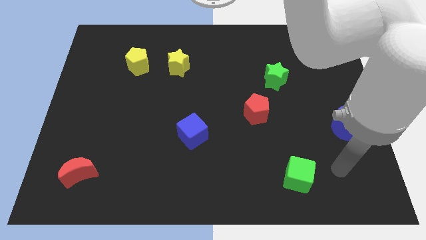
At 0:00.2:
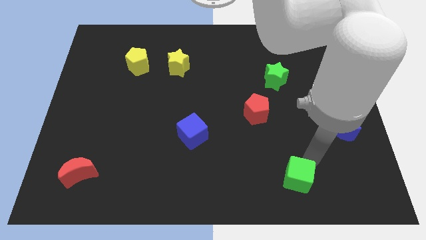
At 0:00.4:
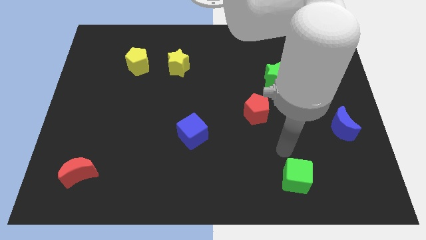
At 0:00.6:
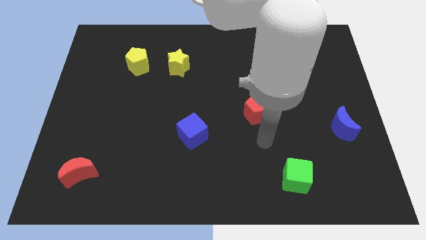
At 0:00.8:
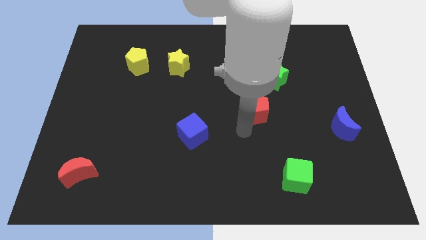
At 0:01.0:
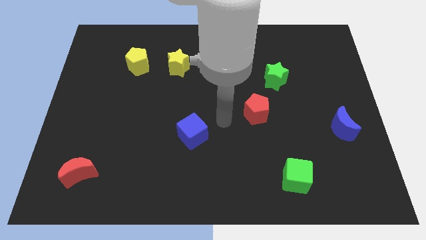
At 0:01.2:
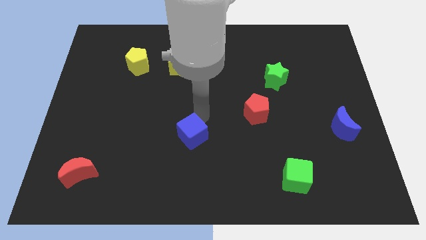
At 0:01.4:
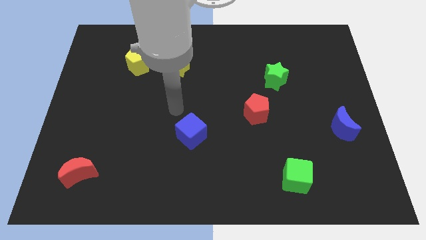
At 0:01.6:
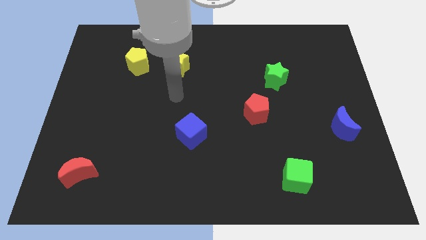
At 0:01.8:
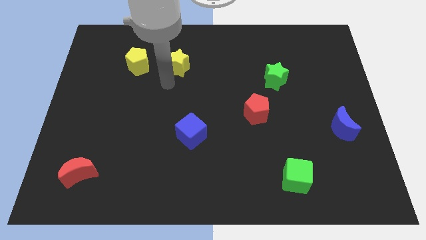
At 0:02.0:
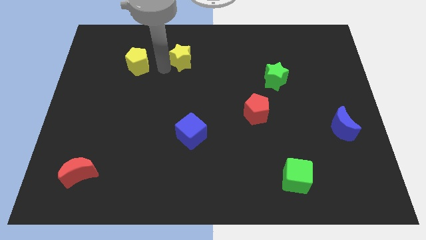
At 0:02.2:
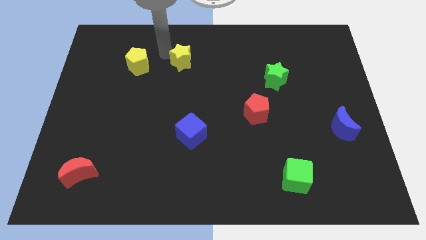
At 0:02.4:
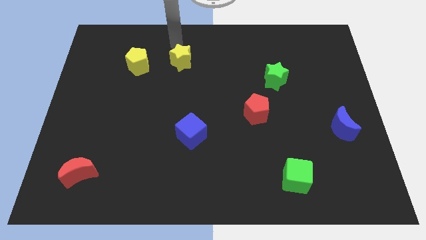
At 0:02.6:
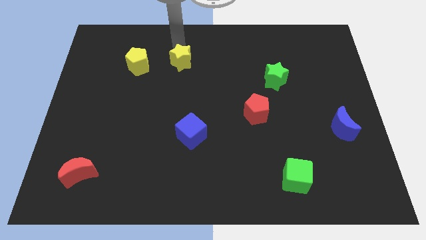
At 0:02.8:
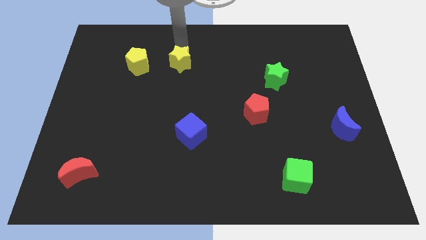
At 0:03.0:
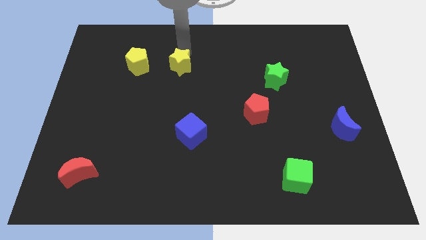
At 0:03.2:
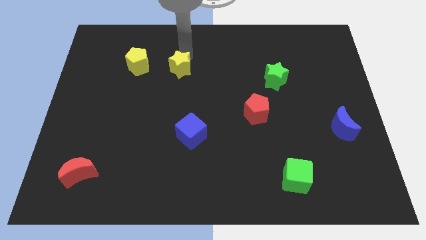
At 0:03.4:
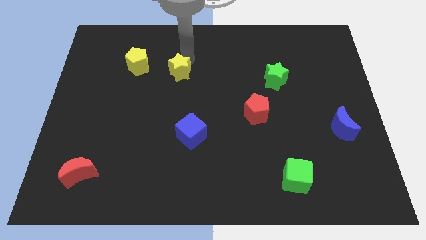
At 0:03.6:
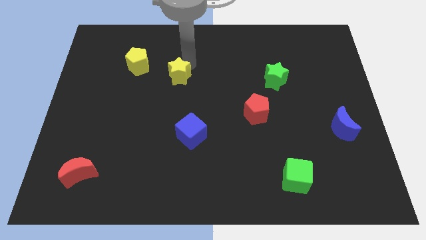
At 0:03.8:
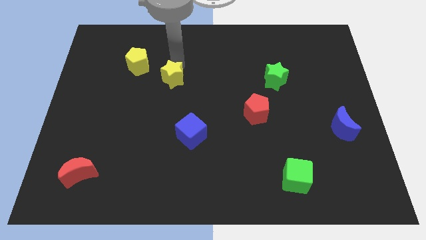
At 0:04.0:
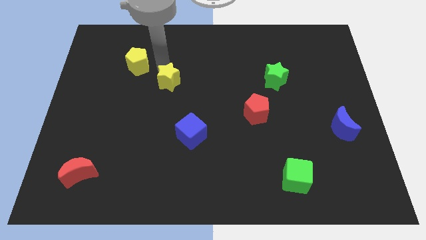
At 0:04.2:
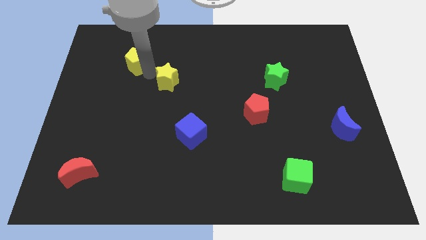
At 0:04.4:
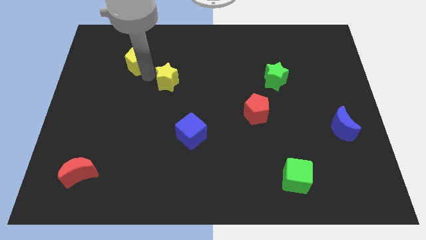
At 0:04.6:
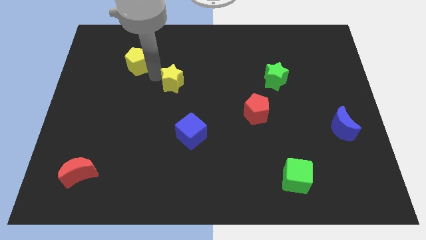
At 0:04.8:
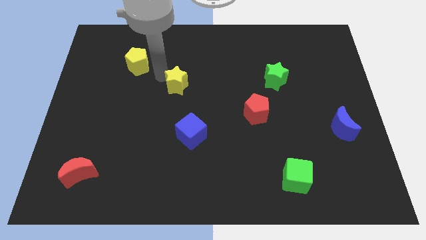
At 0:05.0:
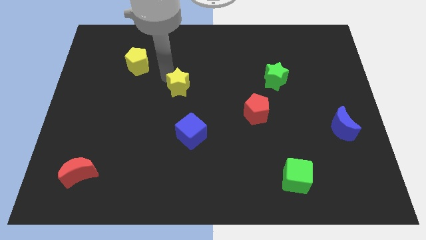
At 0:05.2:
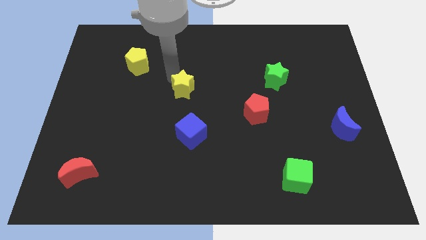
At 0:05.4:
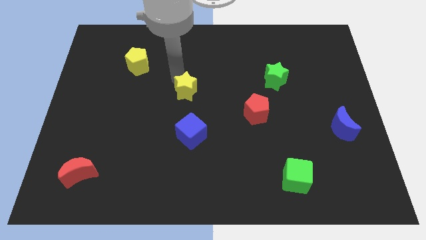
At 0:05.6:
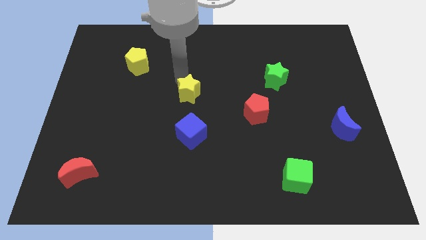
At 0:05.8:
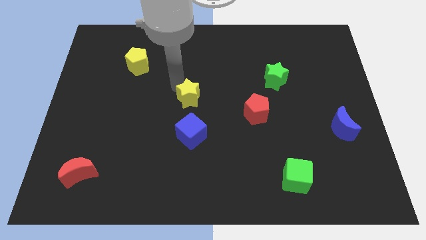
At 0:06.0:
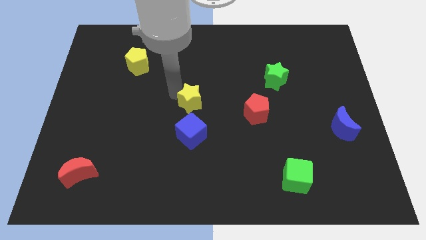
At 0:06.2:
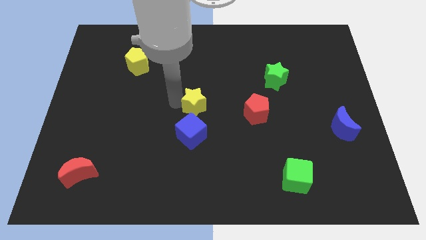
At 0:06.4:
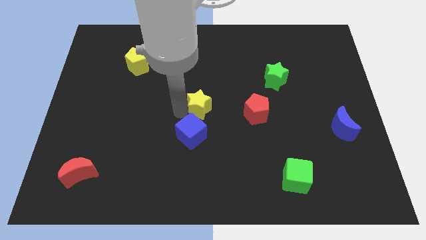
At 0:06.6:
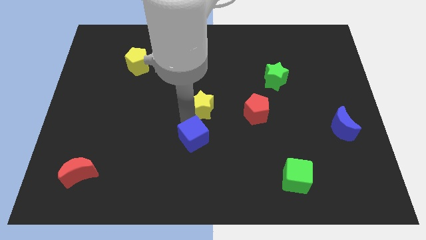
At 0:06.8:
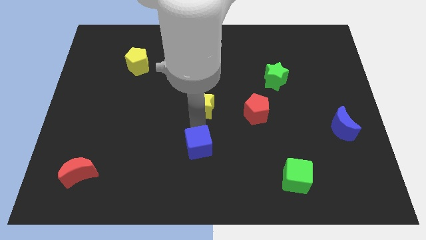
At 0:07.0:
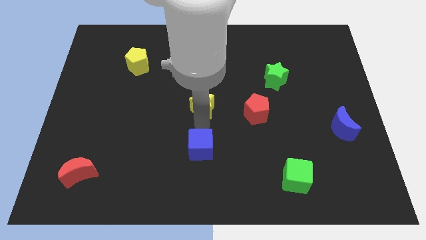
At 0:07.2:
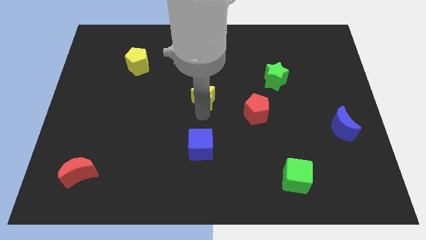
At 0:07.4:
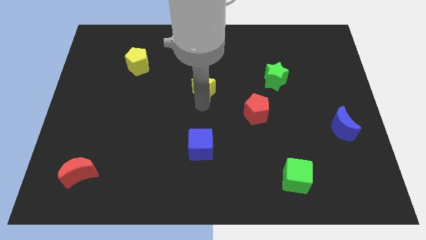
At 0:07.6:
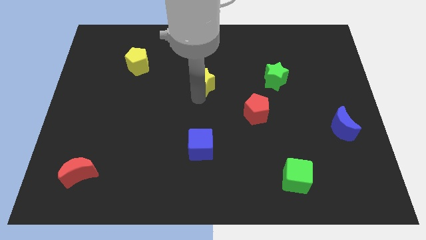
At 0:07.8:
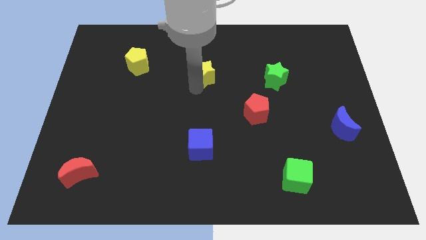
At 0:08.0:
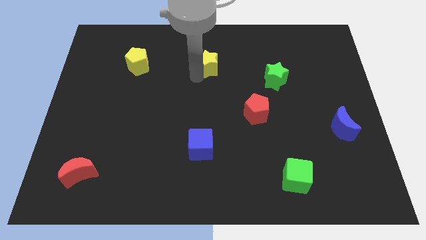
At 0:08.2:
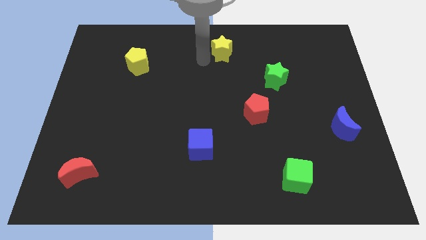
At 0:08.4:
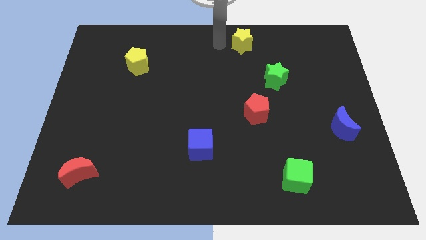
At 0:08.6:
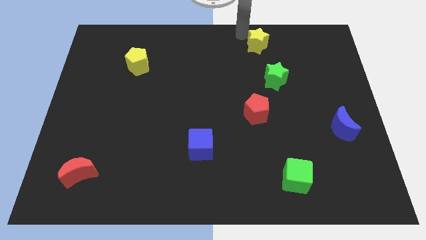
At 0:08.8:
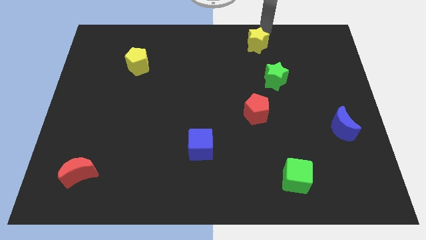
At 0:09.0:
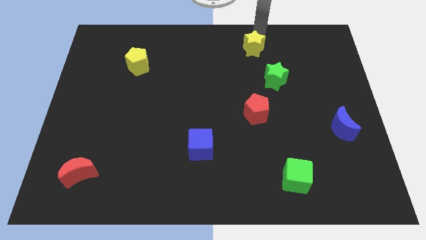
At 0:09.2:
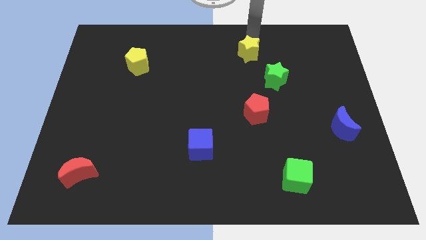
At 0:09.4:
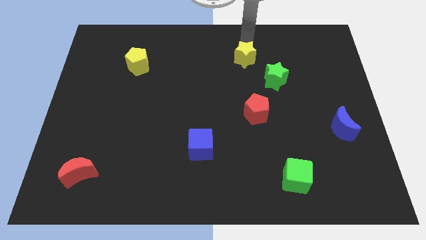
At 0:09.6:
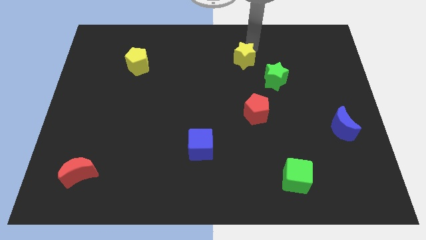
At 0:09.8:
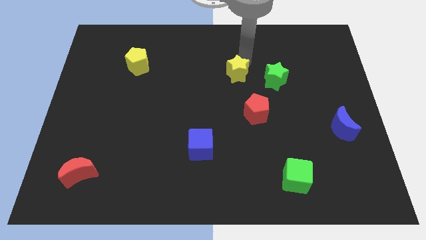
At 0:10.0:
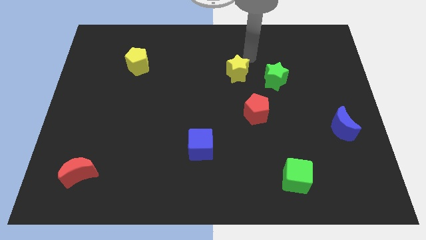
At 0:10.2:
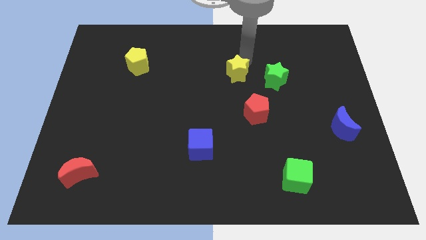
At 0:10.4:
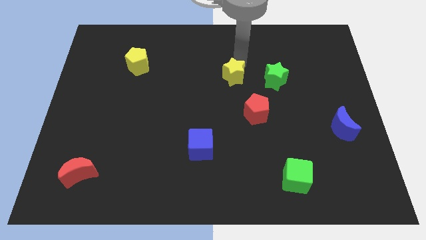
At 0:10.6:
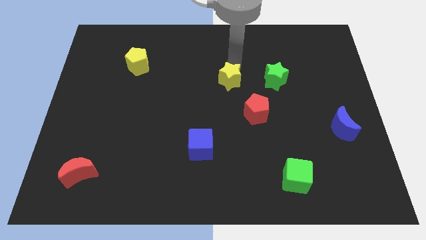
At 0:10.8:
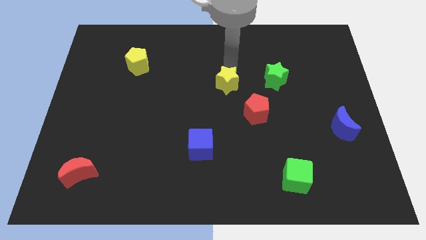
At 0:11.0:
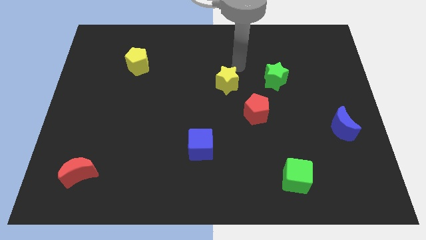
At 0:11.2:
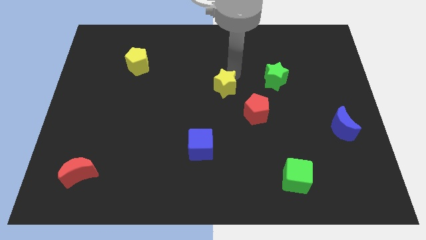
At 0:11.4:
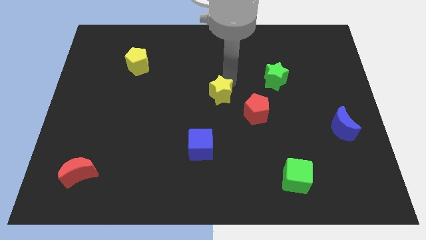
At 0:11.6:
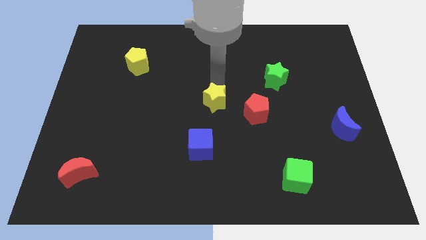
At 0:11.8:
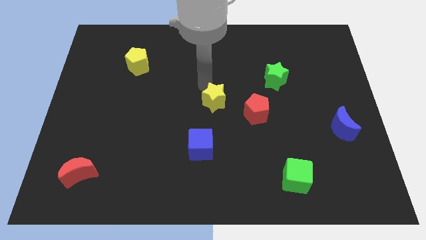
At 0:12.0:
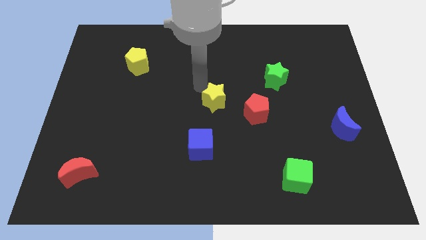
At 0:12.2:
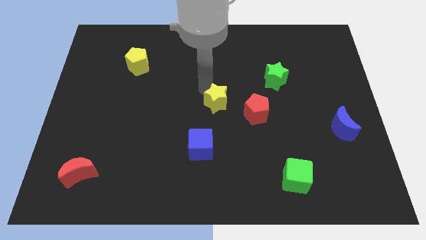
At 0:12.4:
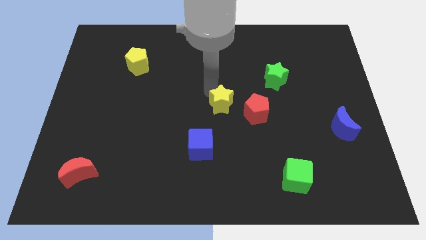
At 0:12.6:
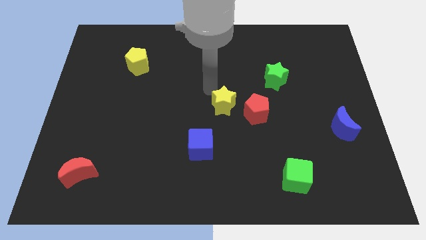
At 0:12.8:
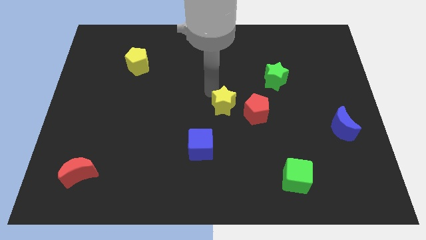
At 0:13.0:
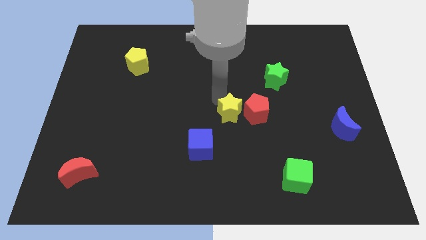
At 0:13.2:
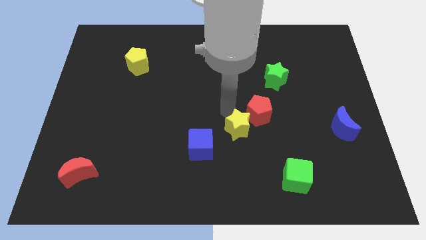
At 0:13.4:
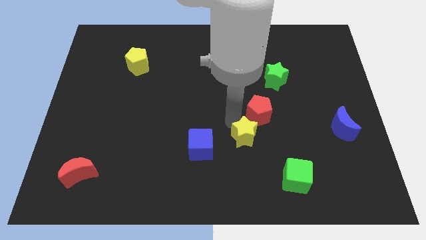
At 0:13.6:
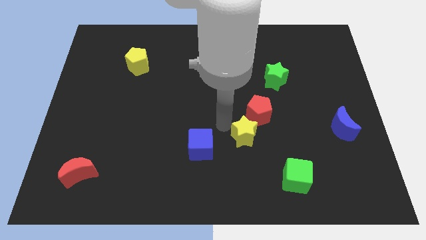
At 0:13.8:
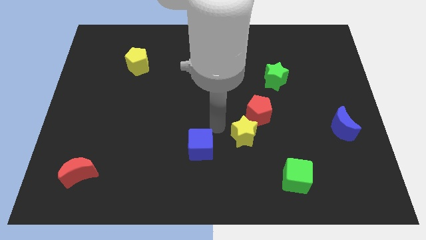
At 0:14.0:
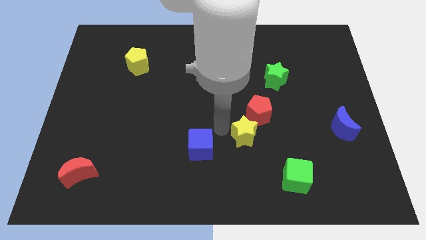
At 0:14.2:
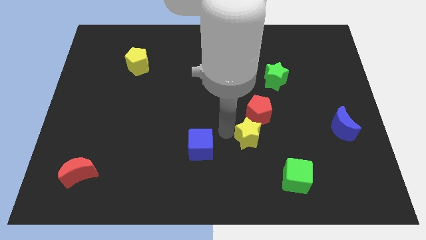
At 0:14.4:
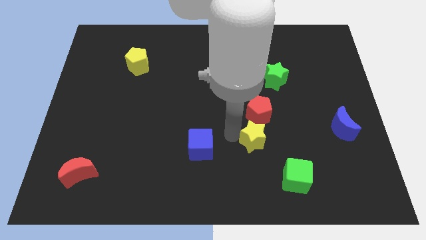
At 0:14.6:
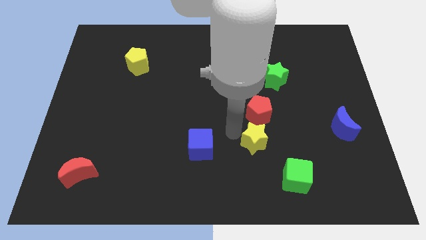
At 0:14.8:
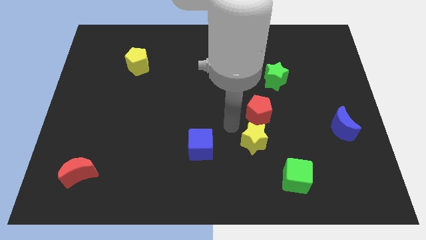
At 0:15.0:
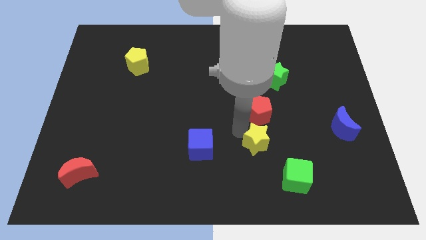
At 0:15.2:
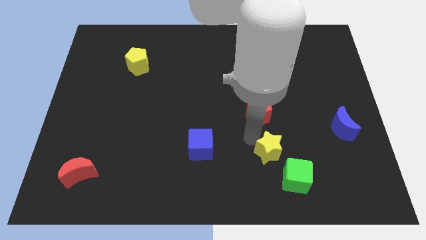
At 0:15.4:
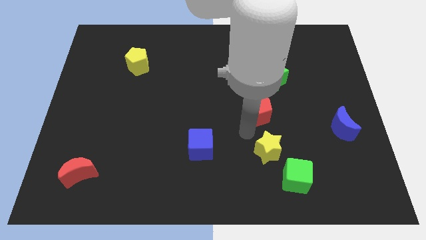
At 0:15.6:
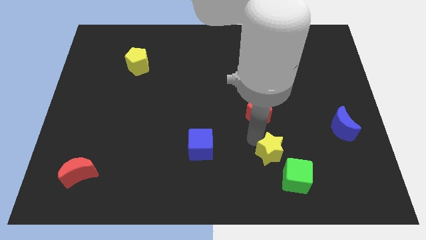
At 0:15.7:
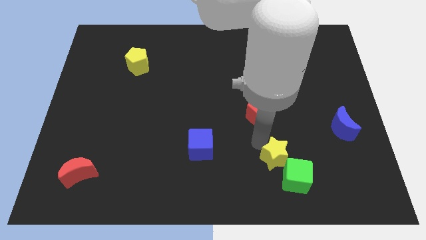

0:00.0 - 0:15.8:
push the yellow star next to the green cube
